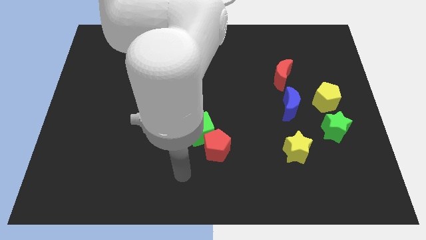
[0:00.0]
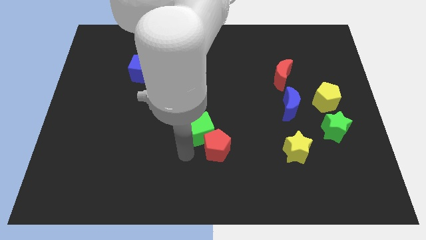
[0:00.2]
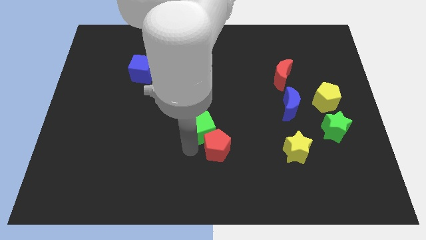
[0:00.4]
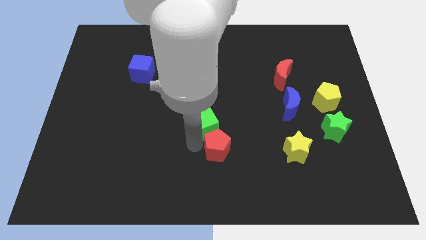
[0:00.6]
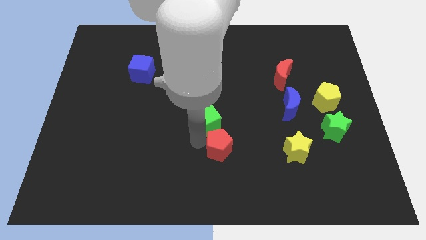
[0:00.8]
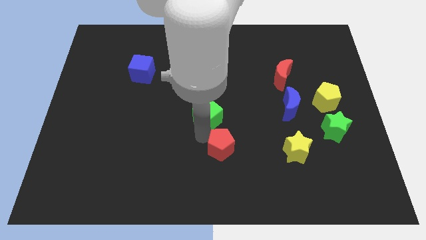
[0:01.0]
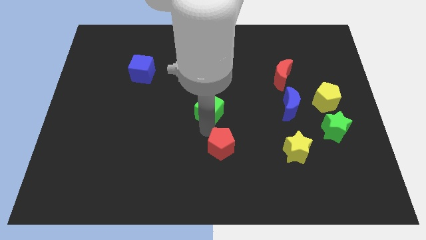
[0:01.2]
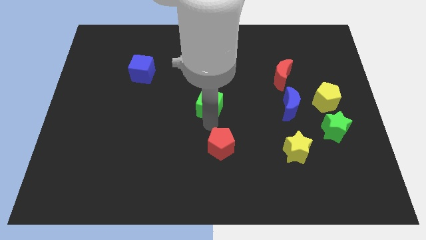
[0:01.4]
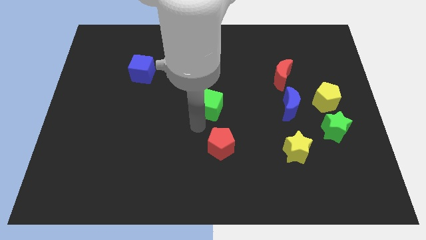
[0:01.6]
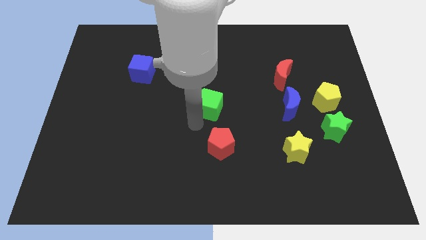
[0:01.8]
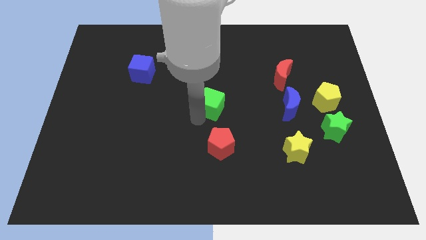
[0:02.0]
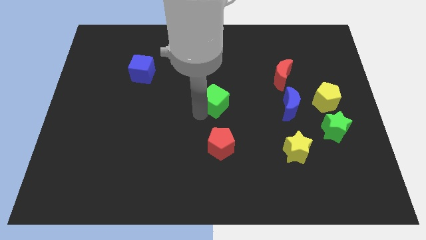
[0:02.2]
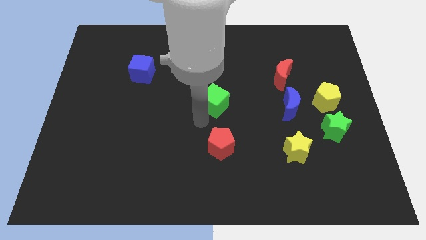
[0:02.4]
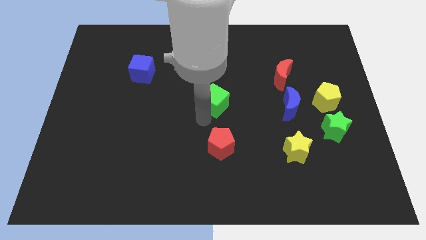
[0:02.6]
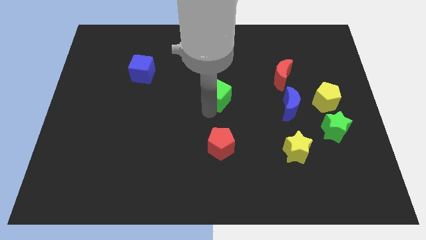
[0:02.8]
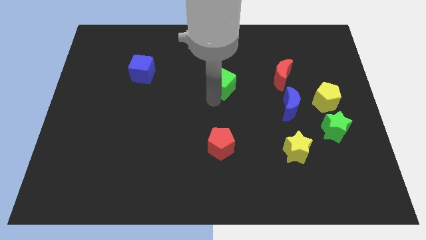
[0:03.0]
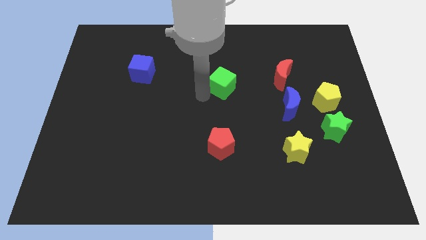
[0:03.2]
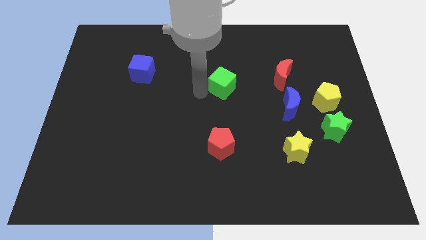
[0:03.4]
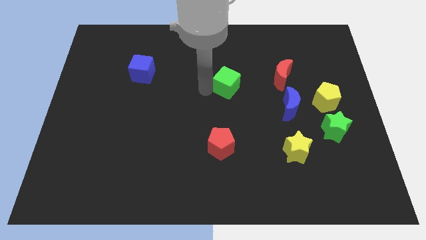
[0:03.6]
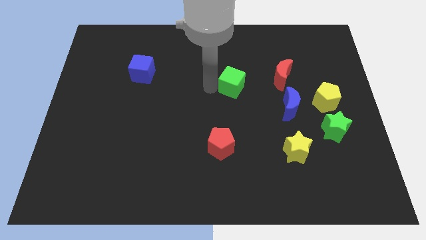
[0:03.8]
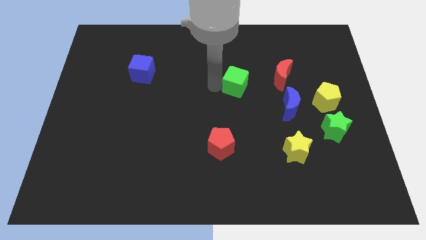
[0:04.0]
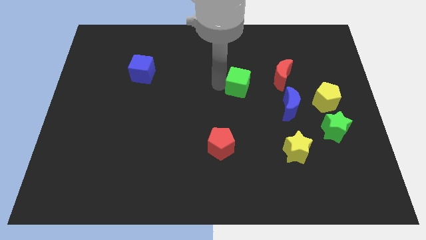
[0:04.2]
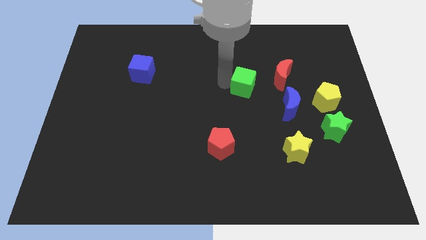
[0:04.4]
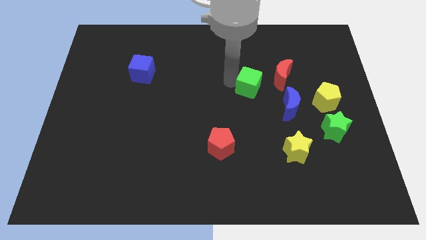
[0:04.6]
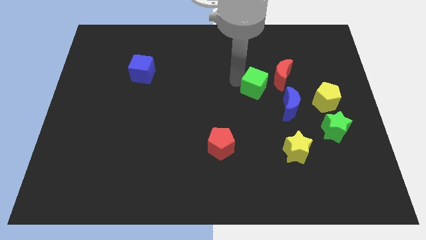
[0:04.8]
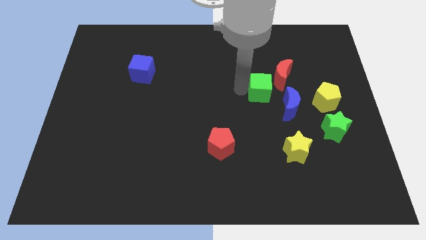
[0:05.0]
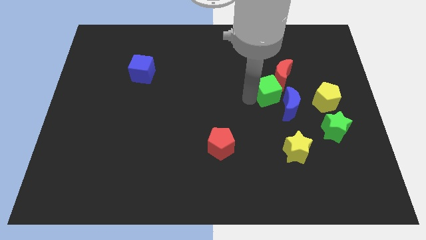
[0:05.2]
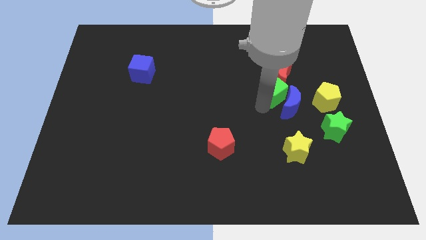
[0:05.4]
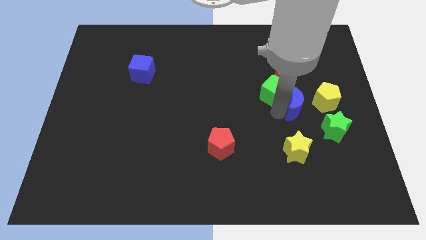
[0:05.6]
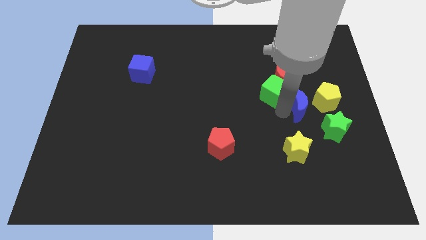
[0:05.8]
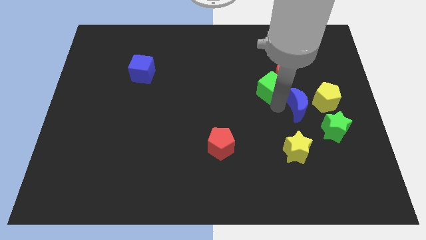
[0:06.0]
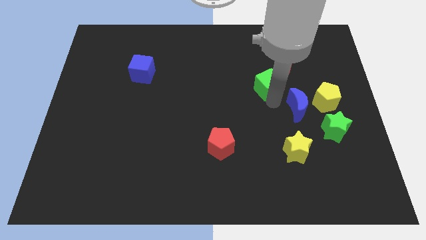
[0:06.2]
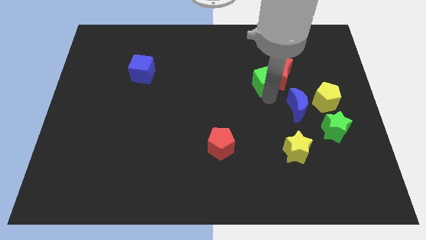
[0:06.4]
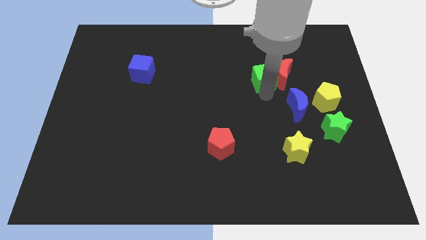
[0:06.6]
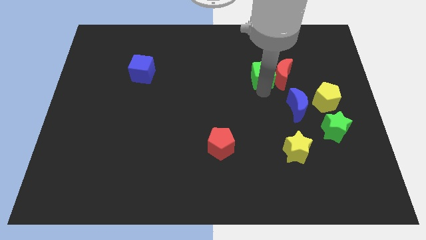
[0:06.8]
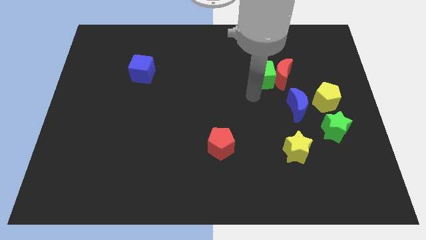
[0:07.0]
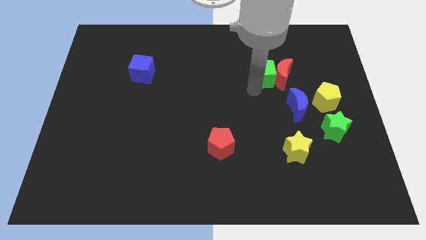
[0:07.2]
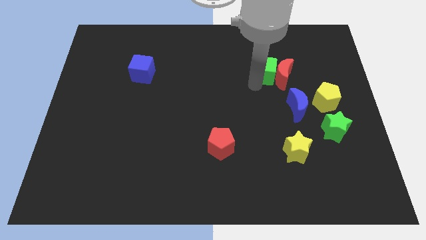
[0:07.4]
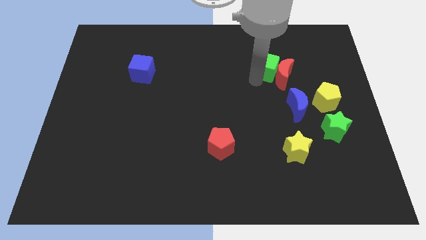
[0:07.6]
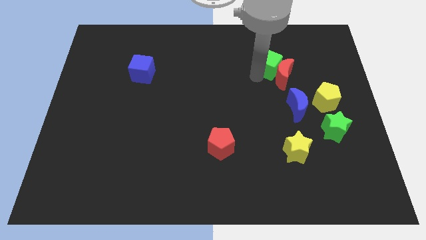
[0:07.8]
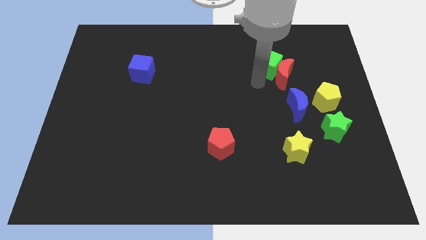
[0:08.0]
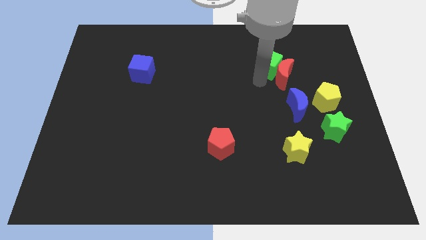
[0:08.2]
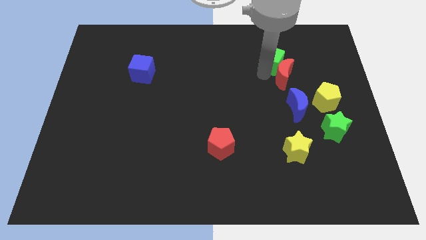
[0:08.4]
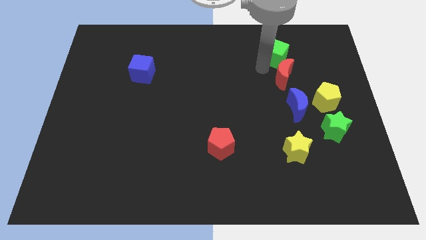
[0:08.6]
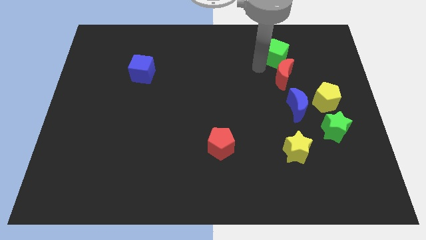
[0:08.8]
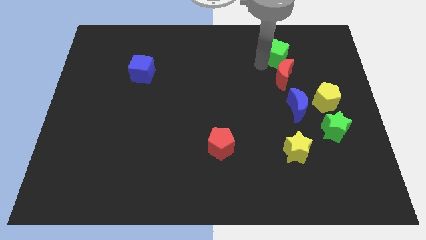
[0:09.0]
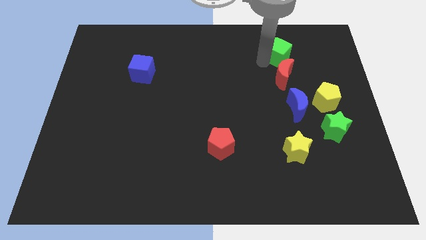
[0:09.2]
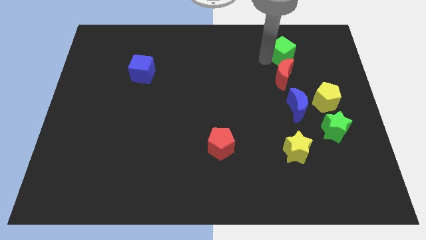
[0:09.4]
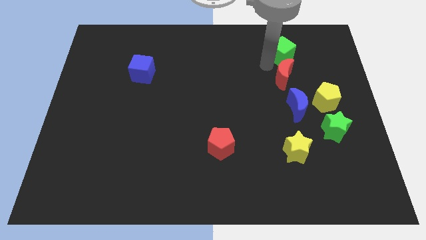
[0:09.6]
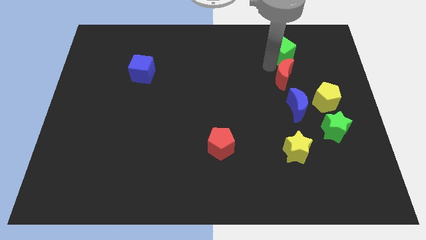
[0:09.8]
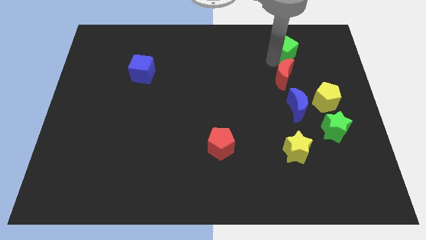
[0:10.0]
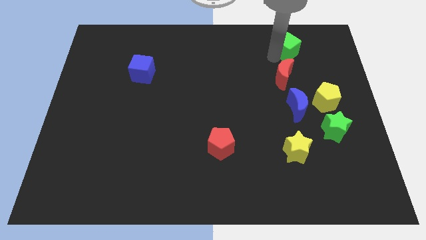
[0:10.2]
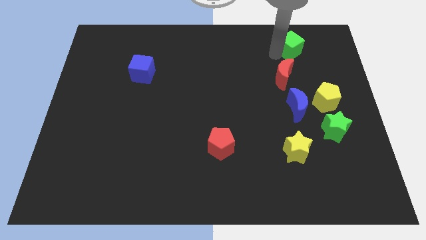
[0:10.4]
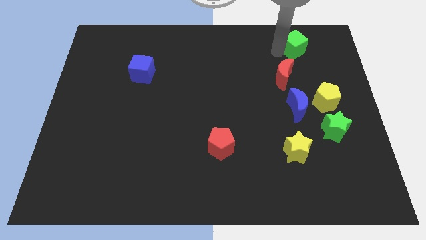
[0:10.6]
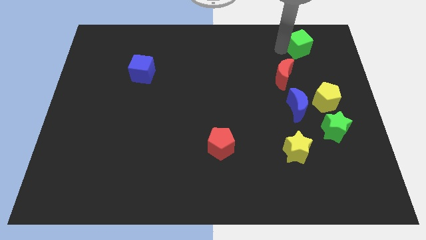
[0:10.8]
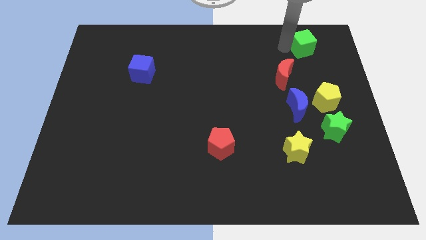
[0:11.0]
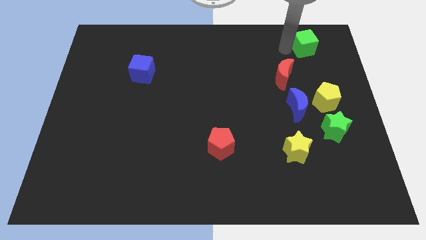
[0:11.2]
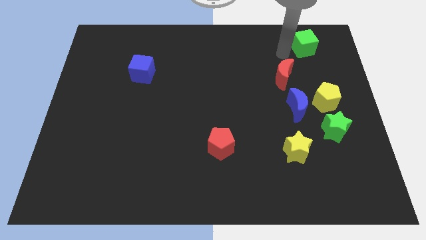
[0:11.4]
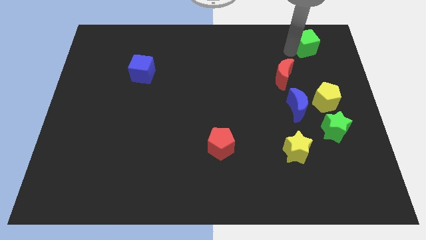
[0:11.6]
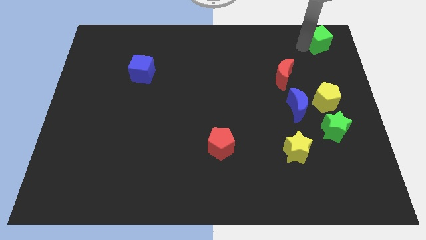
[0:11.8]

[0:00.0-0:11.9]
push the green cube to the top right
